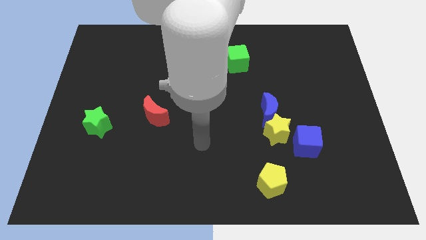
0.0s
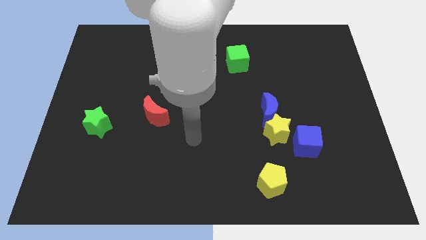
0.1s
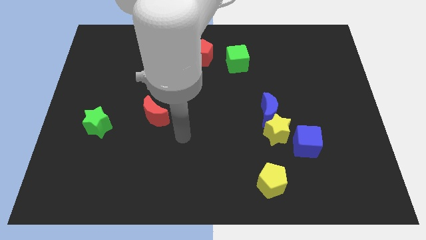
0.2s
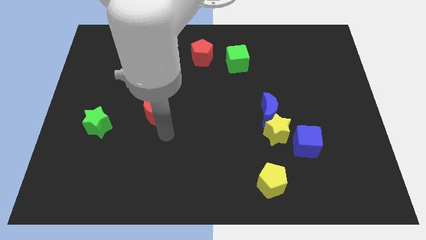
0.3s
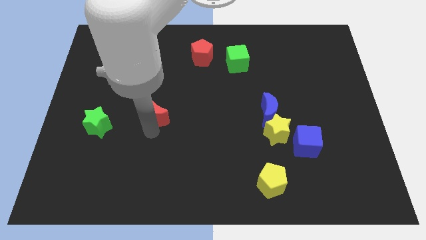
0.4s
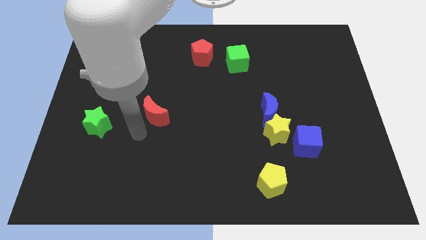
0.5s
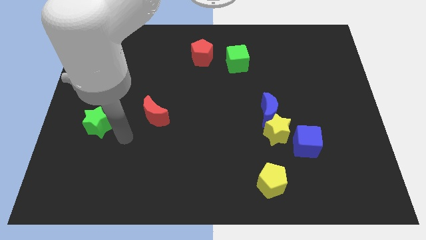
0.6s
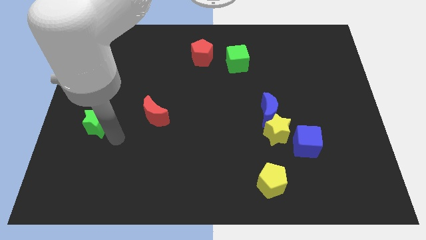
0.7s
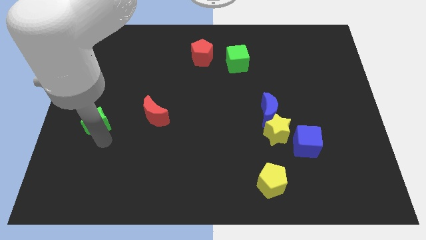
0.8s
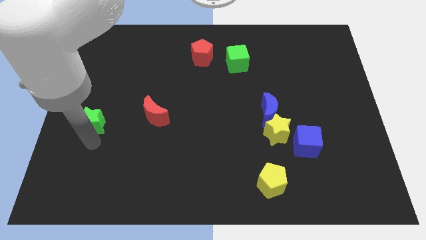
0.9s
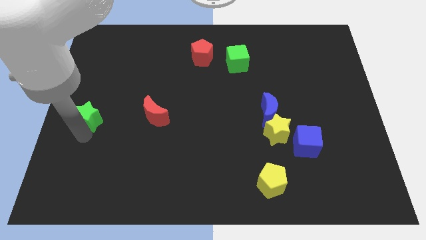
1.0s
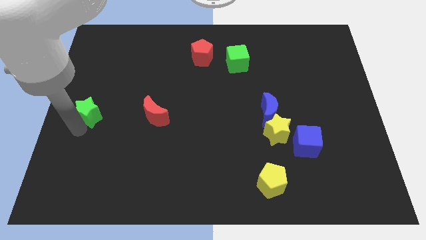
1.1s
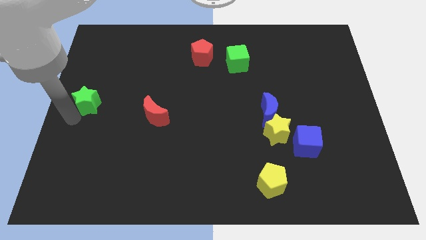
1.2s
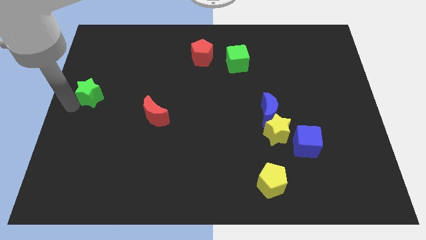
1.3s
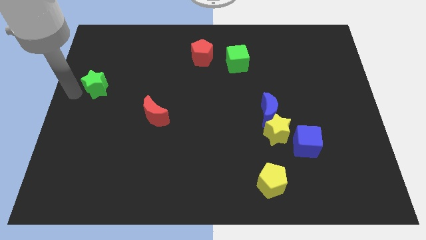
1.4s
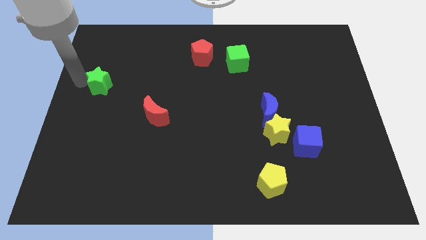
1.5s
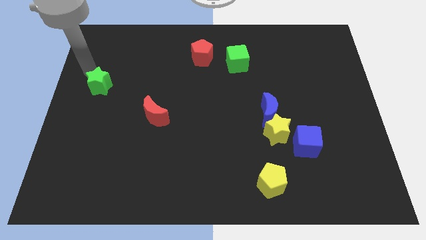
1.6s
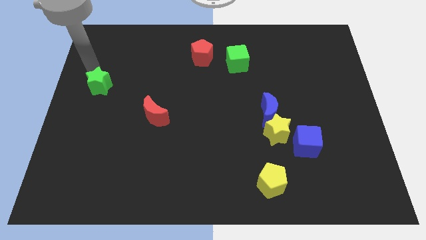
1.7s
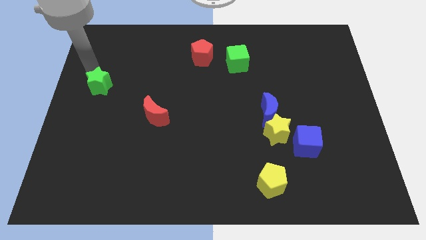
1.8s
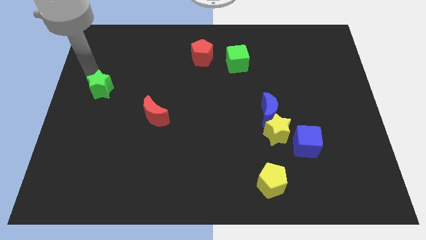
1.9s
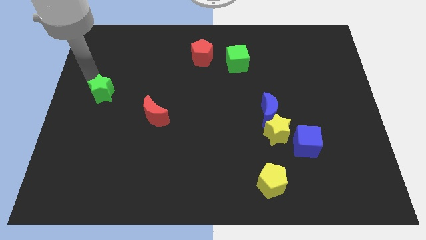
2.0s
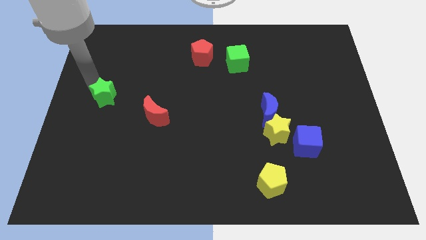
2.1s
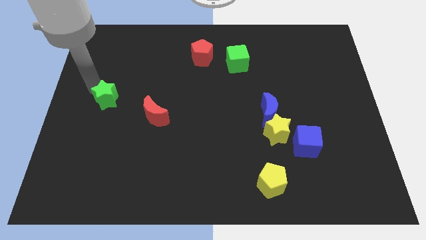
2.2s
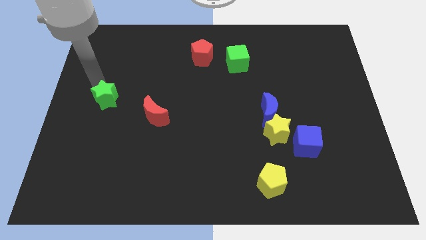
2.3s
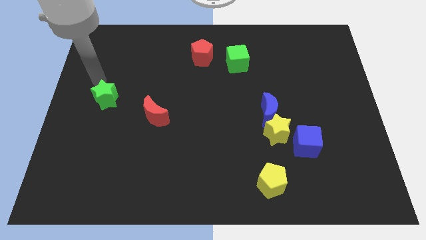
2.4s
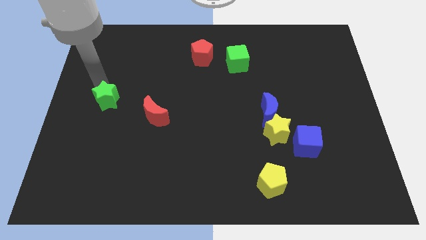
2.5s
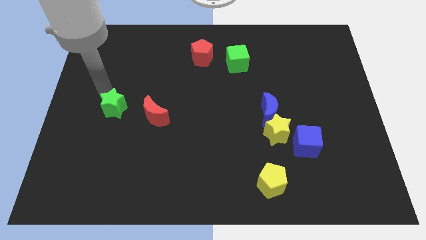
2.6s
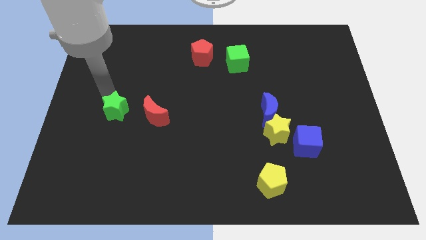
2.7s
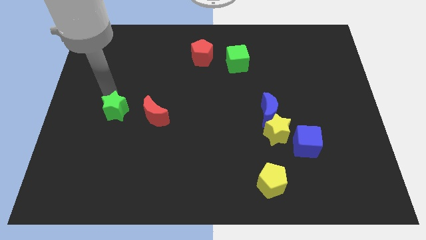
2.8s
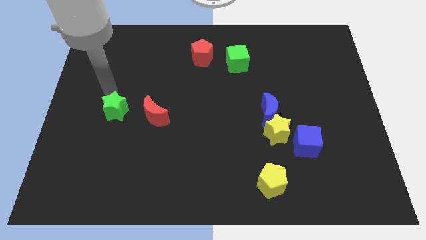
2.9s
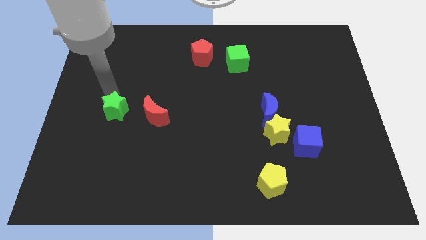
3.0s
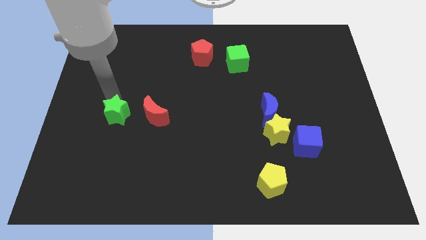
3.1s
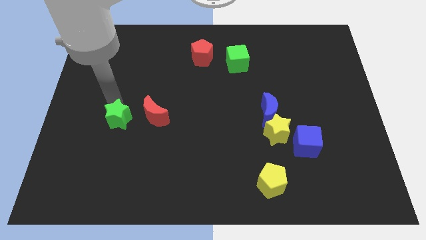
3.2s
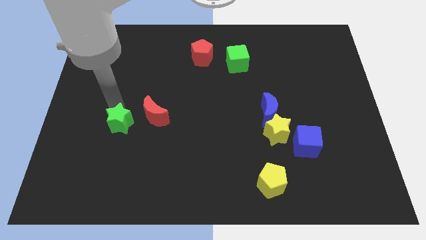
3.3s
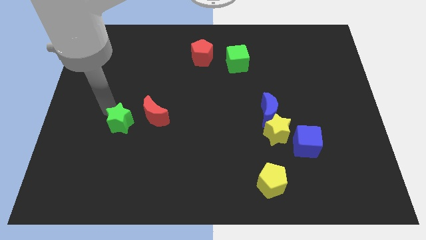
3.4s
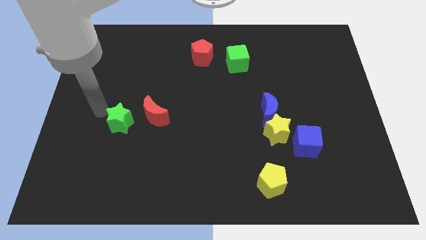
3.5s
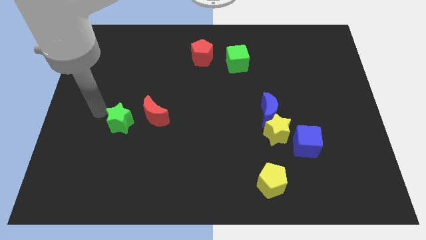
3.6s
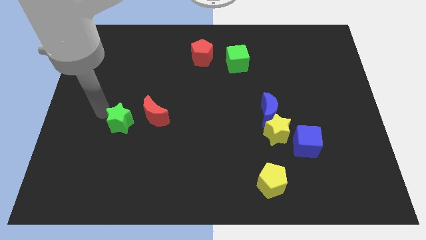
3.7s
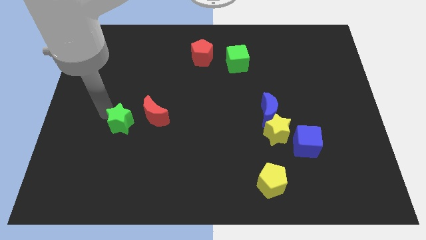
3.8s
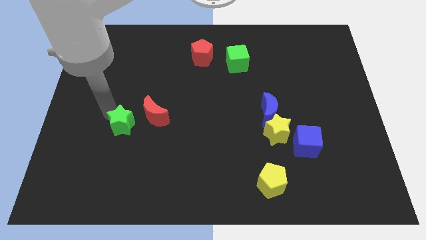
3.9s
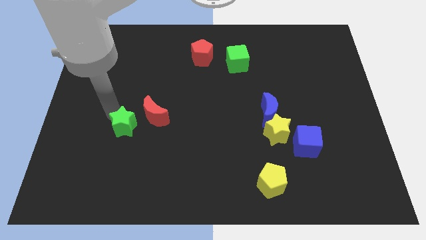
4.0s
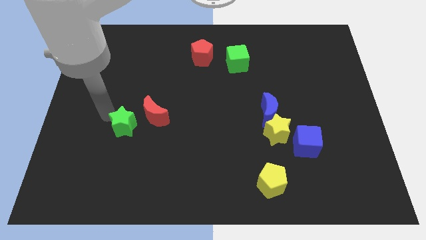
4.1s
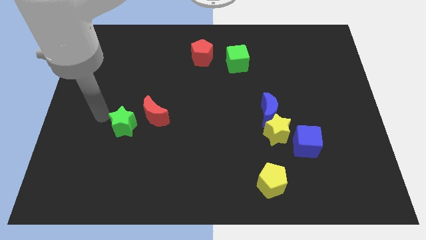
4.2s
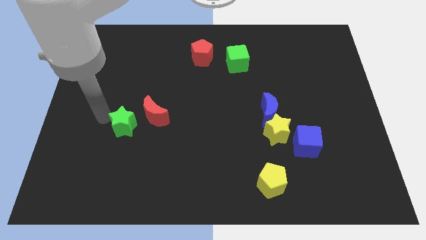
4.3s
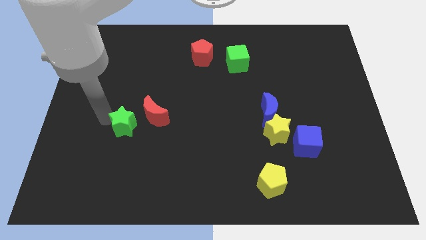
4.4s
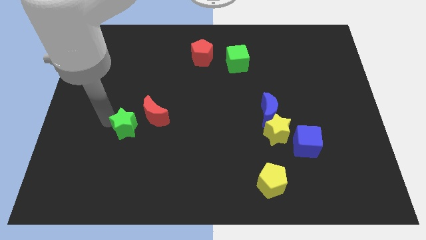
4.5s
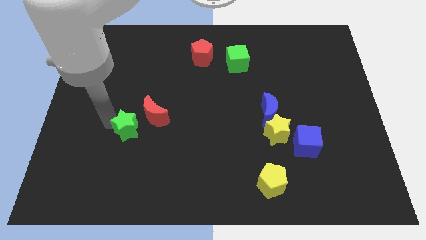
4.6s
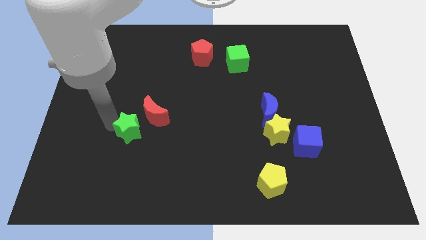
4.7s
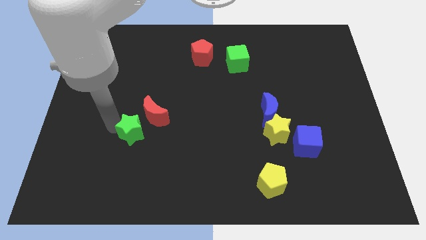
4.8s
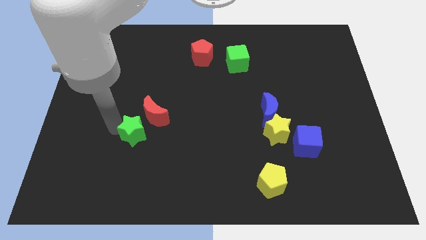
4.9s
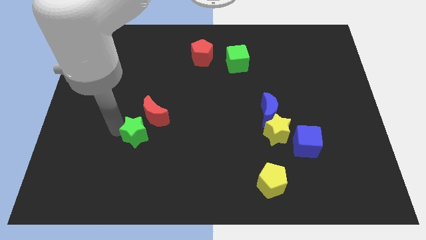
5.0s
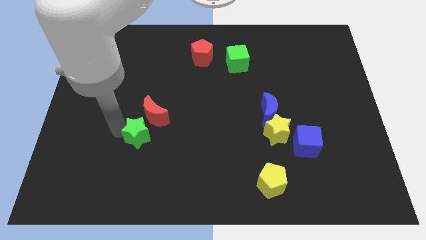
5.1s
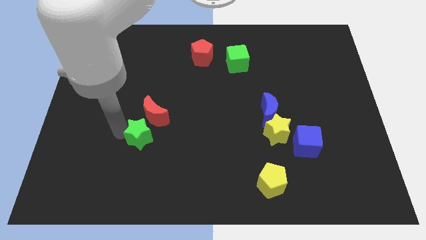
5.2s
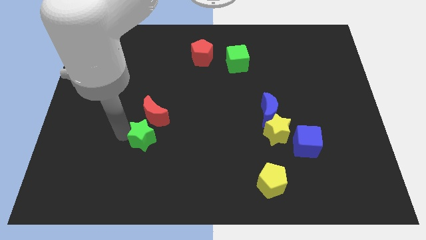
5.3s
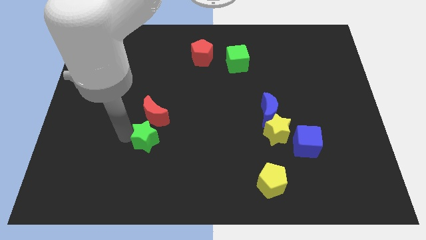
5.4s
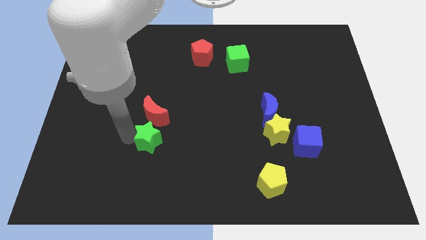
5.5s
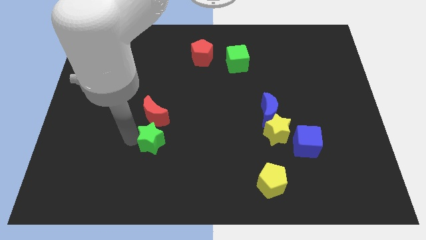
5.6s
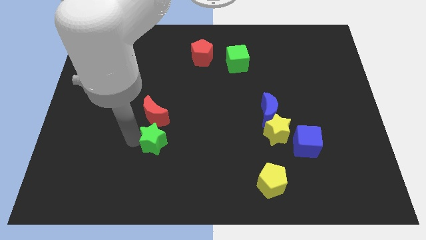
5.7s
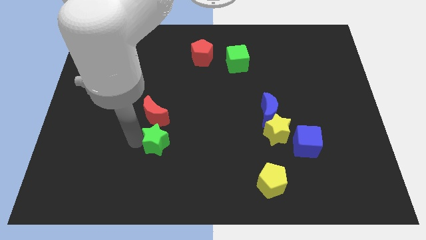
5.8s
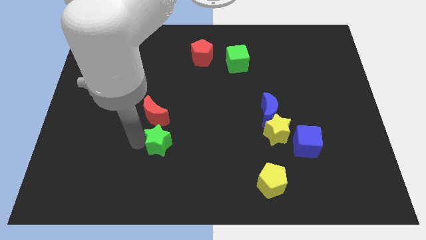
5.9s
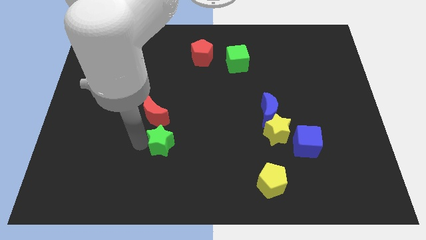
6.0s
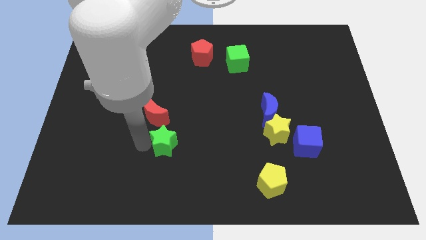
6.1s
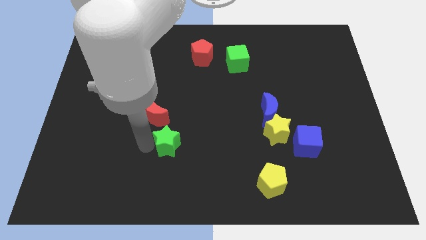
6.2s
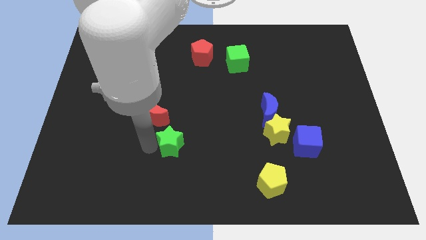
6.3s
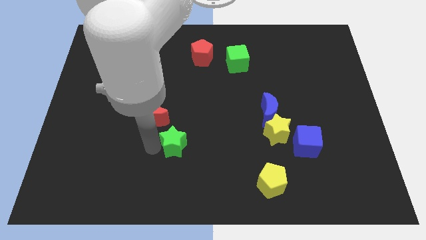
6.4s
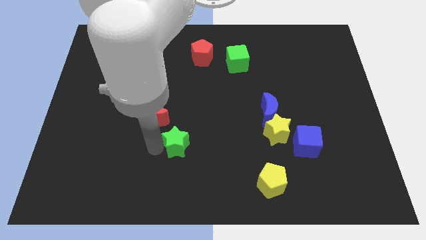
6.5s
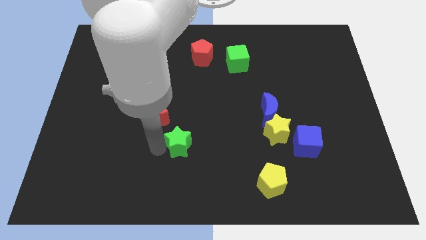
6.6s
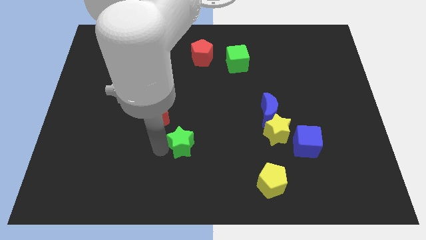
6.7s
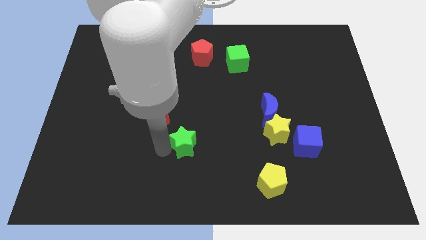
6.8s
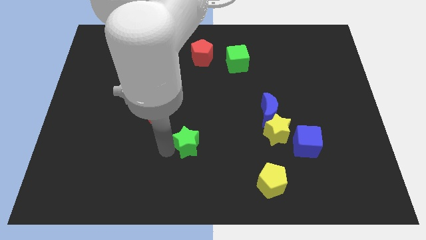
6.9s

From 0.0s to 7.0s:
push the green star right

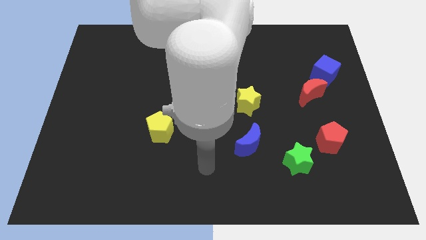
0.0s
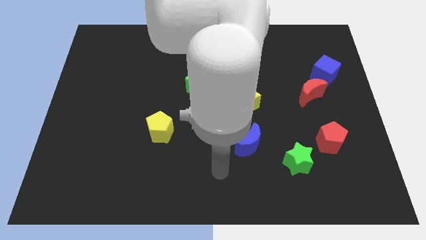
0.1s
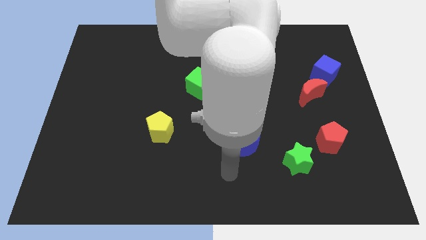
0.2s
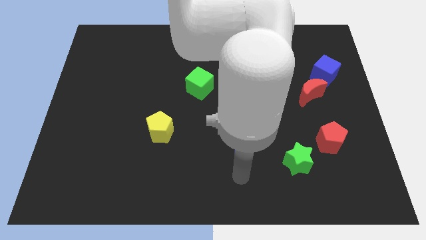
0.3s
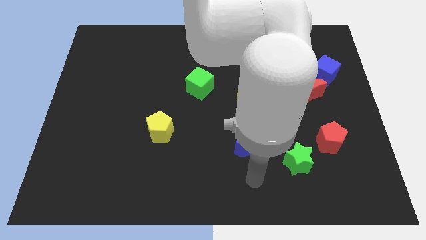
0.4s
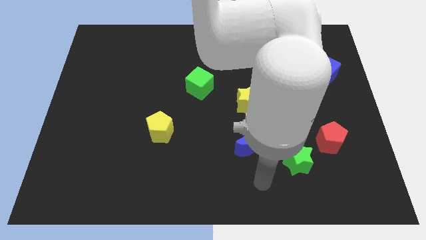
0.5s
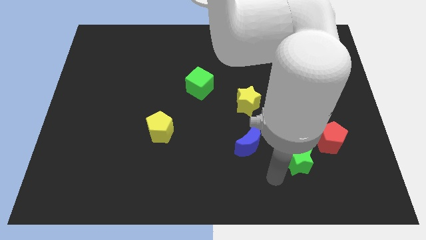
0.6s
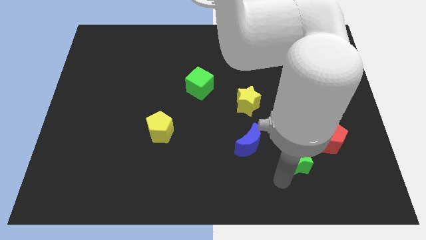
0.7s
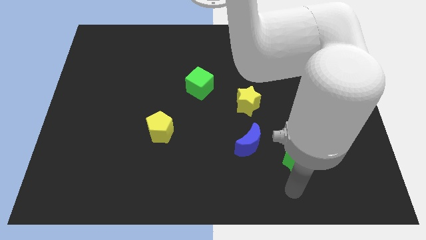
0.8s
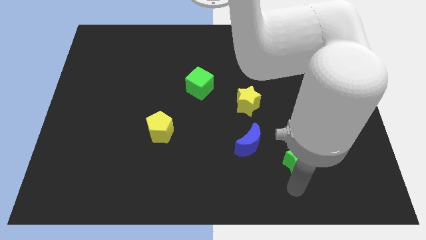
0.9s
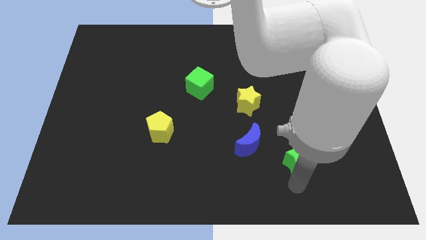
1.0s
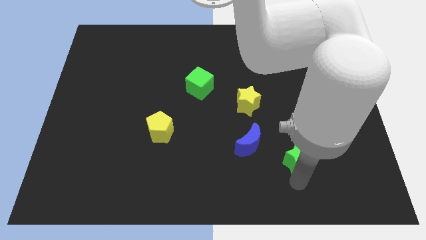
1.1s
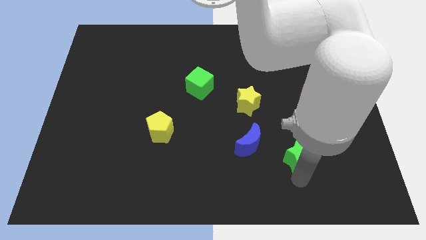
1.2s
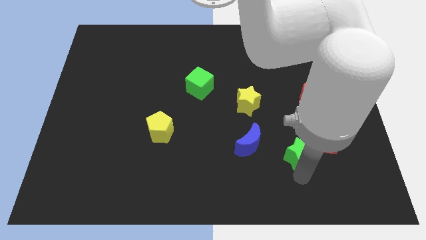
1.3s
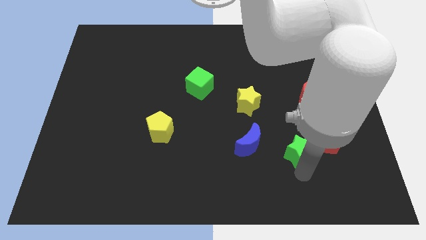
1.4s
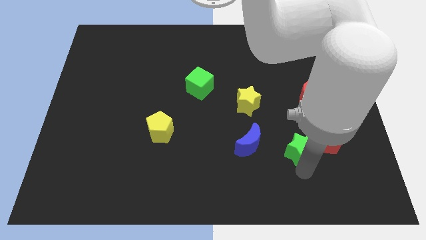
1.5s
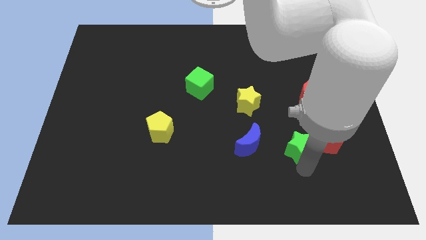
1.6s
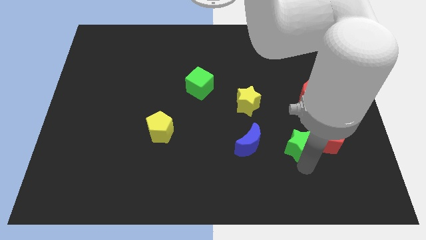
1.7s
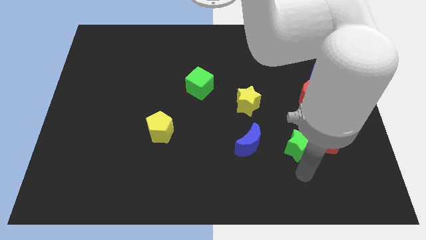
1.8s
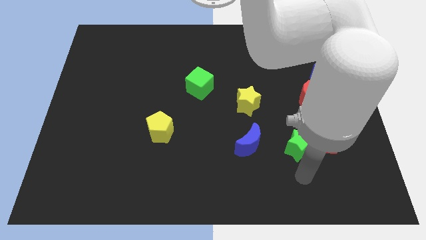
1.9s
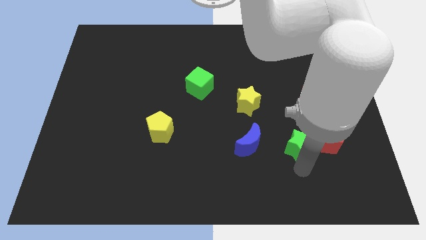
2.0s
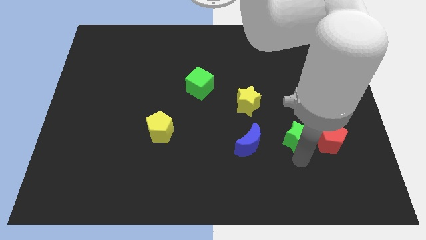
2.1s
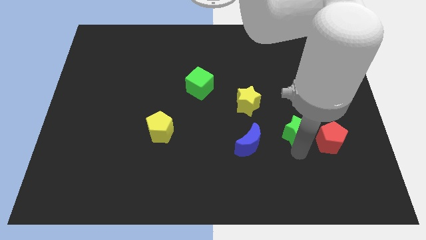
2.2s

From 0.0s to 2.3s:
slightly slide the green star upwards
